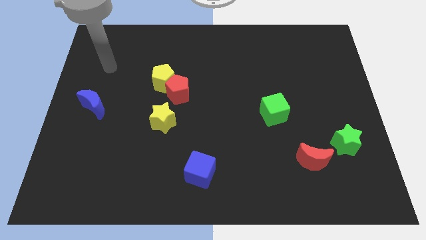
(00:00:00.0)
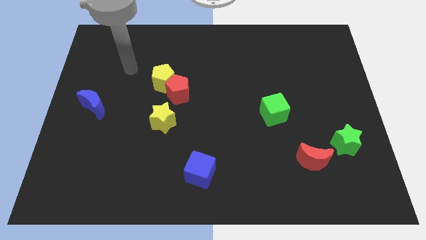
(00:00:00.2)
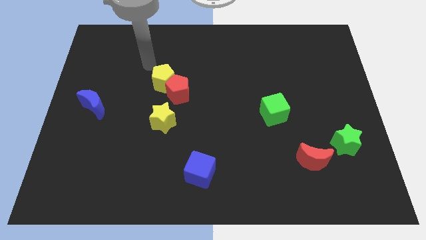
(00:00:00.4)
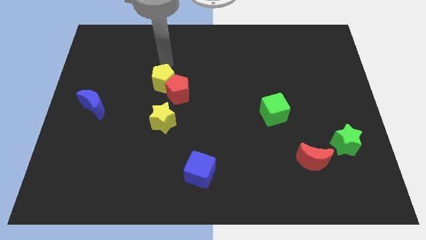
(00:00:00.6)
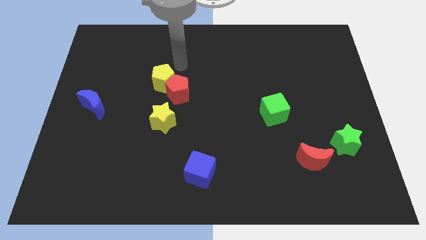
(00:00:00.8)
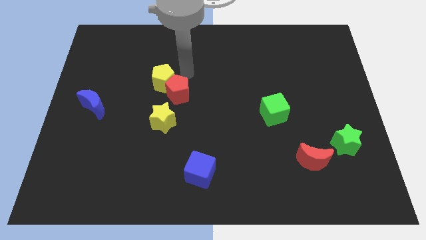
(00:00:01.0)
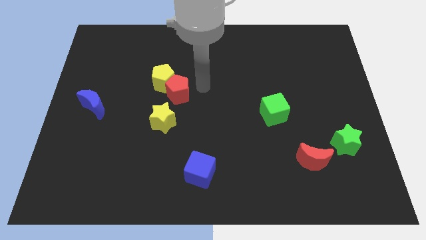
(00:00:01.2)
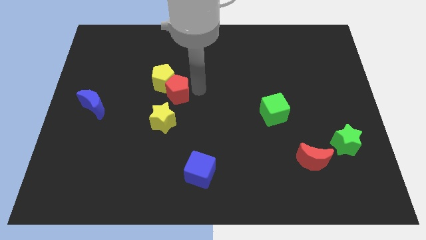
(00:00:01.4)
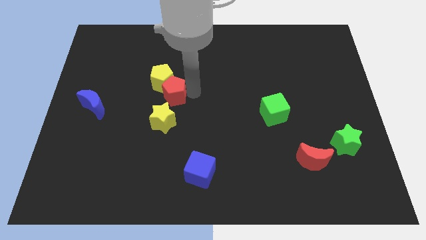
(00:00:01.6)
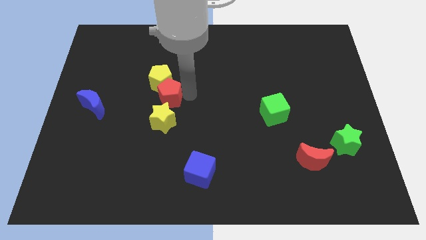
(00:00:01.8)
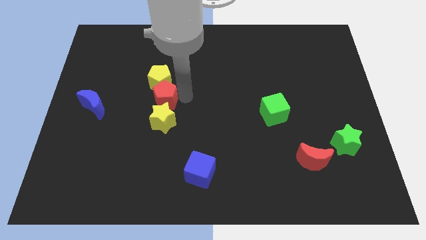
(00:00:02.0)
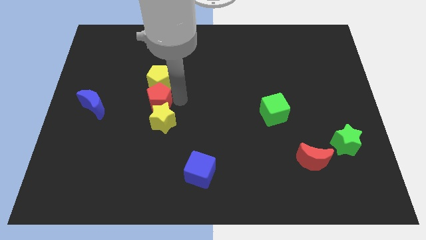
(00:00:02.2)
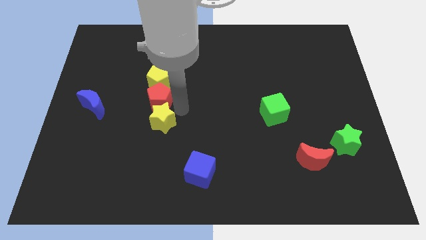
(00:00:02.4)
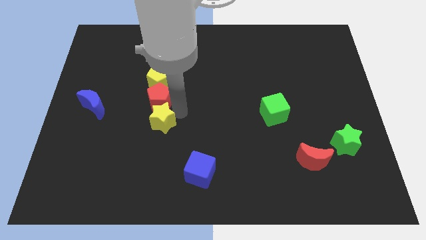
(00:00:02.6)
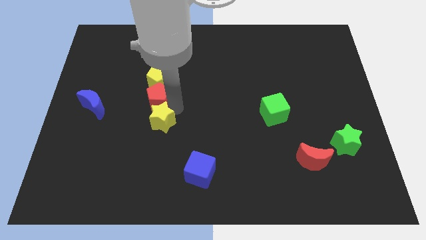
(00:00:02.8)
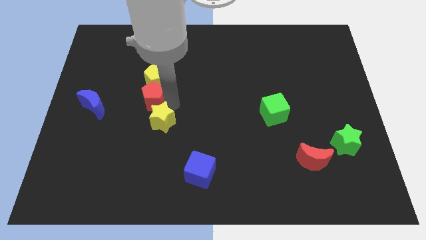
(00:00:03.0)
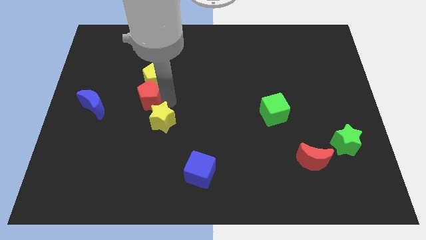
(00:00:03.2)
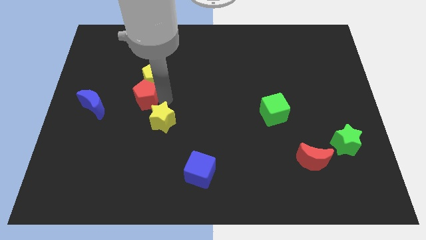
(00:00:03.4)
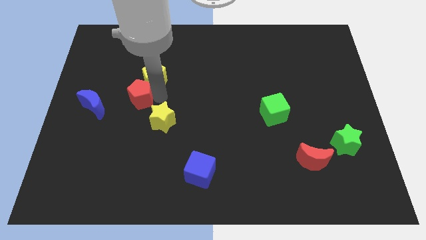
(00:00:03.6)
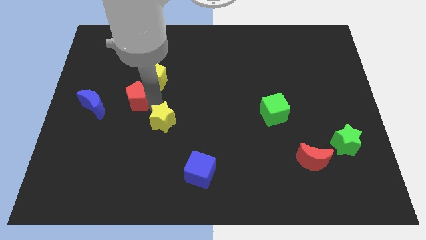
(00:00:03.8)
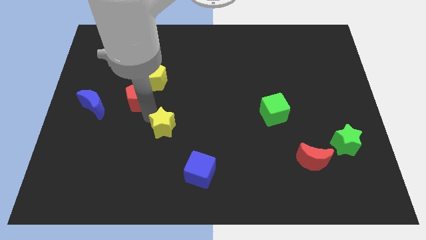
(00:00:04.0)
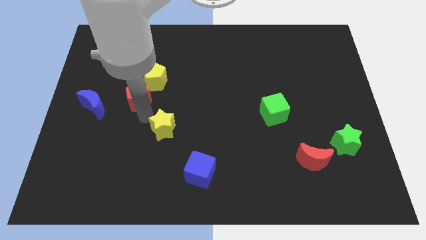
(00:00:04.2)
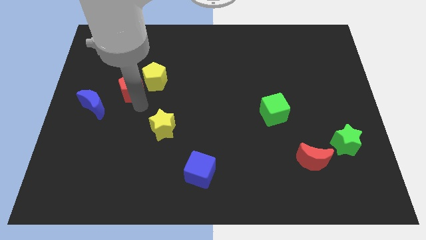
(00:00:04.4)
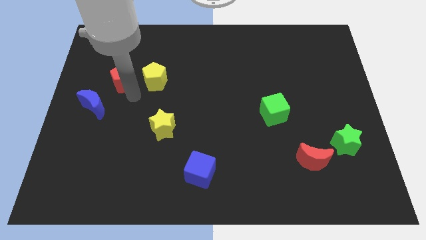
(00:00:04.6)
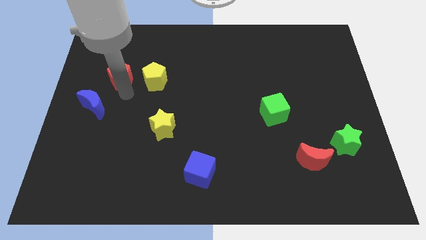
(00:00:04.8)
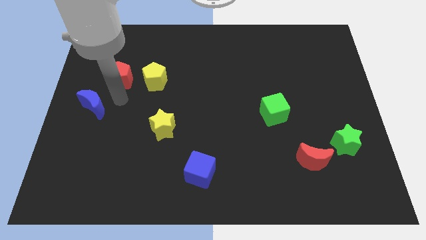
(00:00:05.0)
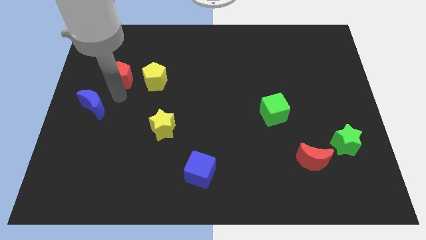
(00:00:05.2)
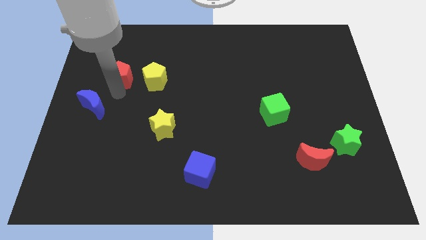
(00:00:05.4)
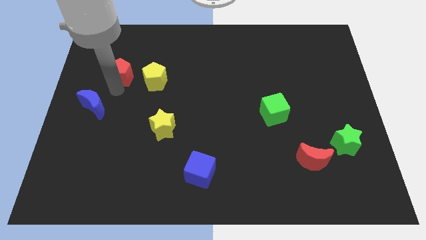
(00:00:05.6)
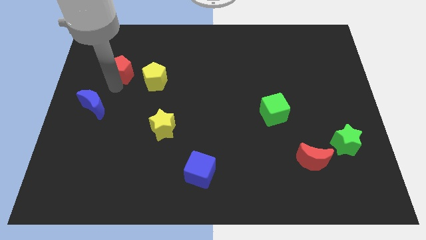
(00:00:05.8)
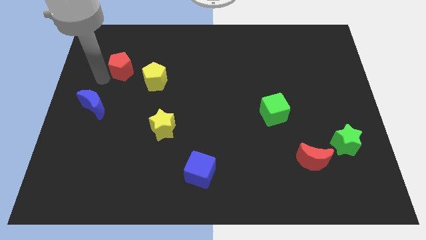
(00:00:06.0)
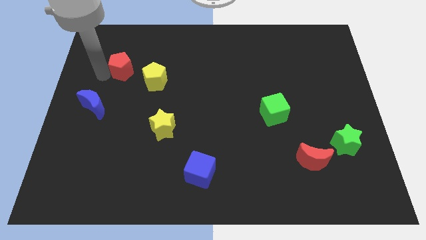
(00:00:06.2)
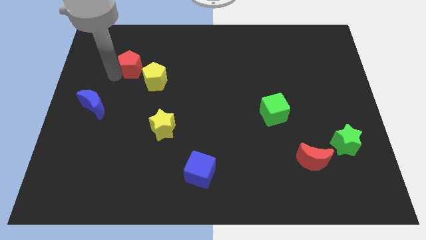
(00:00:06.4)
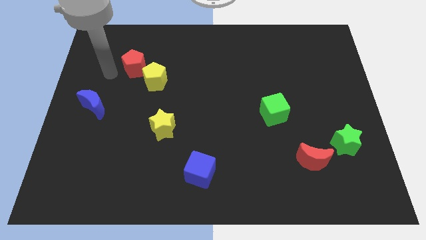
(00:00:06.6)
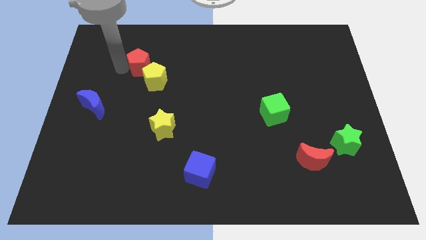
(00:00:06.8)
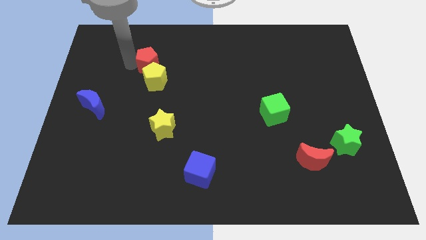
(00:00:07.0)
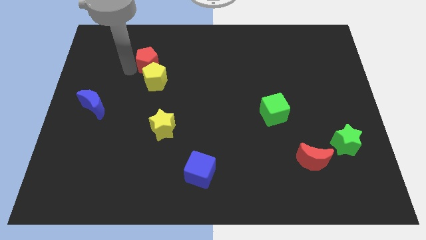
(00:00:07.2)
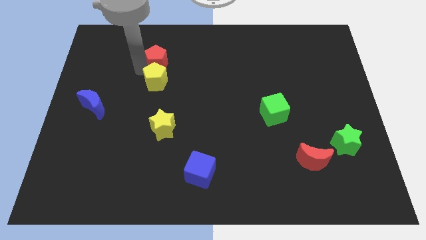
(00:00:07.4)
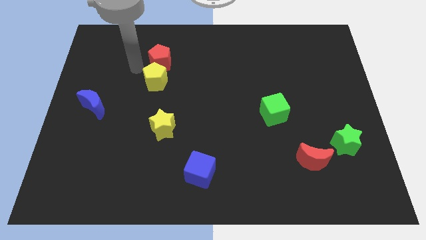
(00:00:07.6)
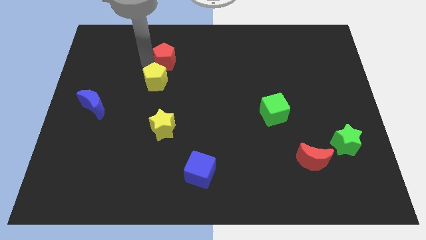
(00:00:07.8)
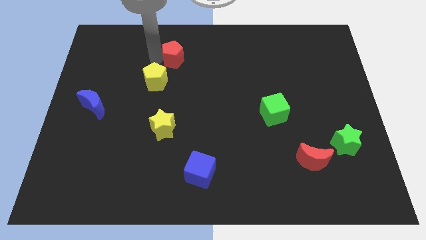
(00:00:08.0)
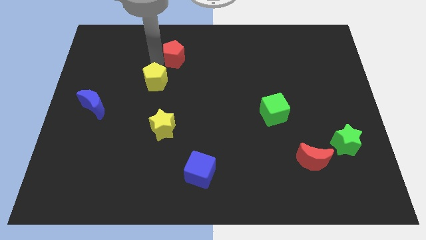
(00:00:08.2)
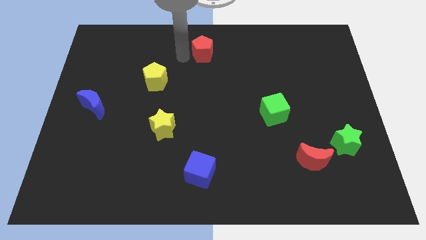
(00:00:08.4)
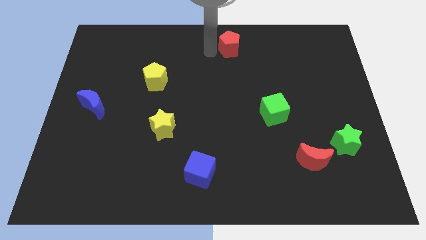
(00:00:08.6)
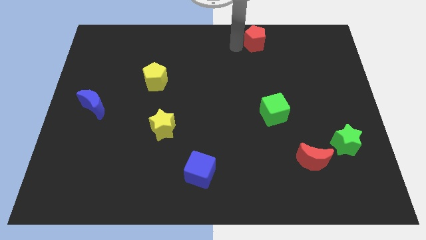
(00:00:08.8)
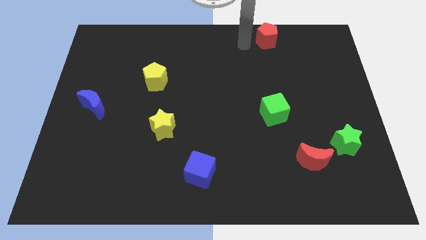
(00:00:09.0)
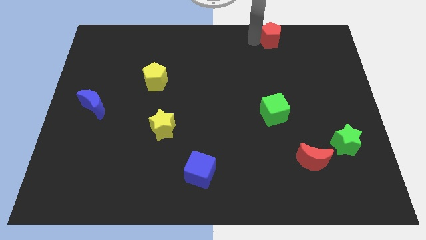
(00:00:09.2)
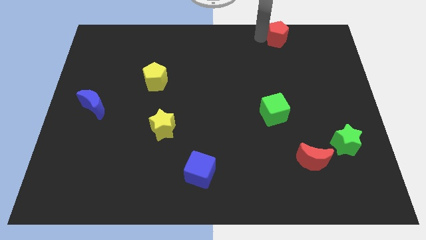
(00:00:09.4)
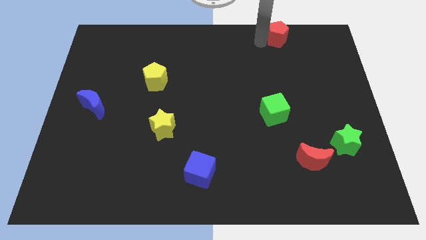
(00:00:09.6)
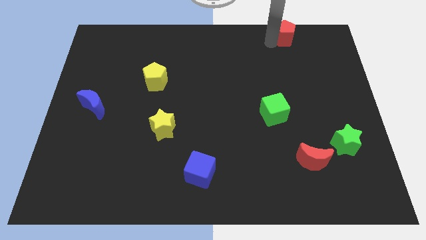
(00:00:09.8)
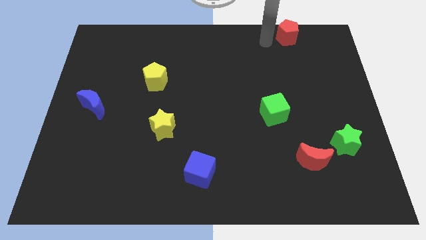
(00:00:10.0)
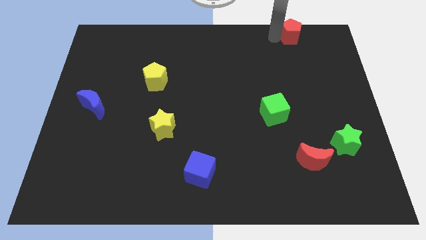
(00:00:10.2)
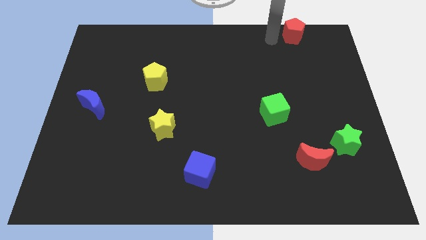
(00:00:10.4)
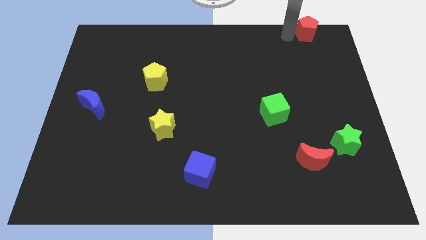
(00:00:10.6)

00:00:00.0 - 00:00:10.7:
push the red pentagon to the top right corner

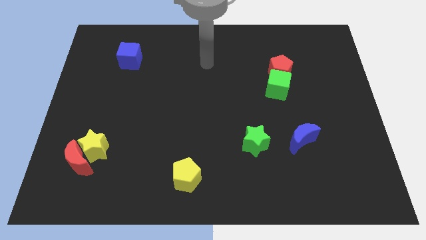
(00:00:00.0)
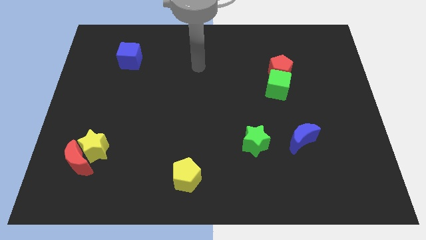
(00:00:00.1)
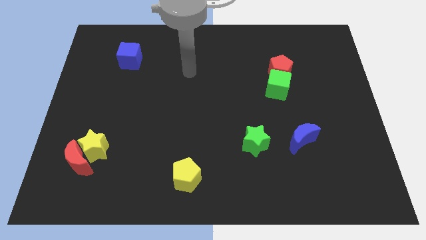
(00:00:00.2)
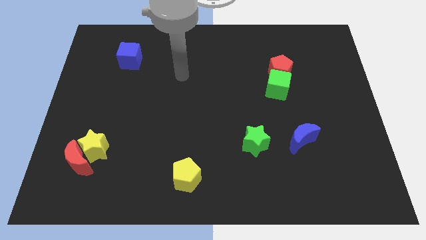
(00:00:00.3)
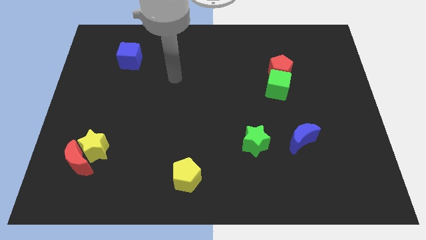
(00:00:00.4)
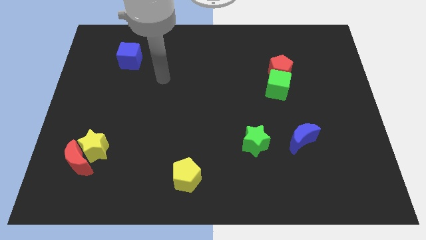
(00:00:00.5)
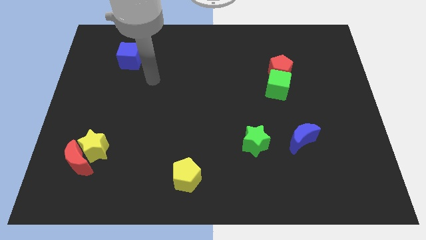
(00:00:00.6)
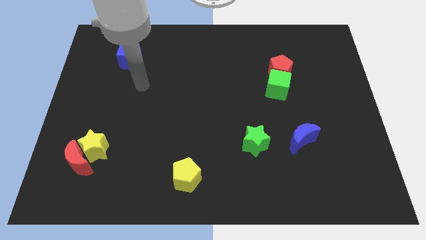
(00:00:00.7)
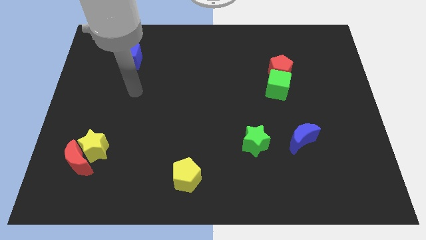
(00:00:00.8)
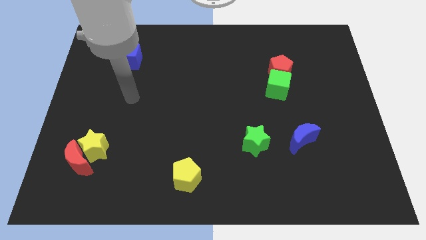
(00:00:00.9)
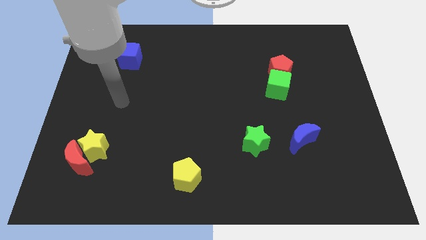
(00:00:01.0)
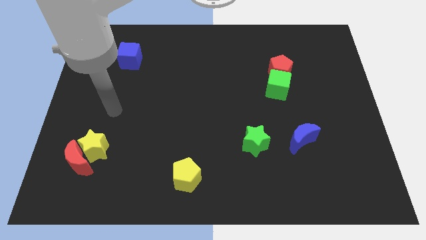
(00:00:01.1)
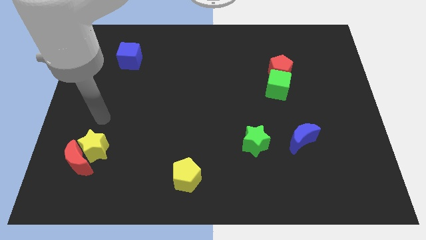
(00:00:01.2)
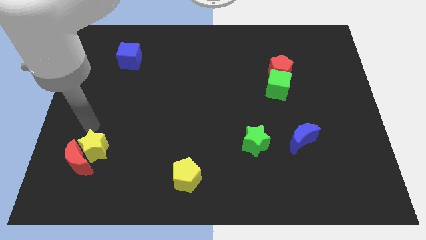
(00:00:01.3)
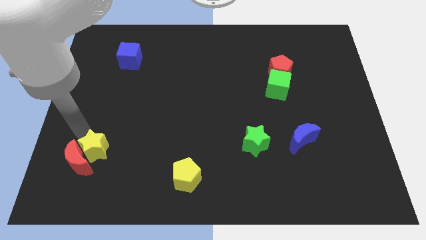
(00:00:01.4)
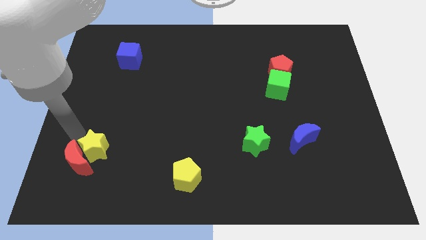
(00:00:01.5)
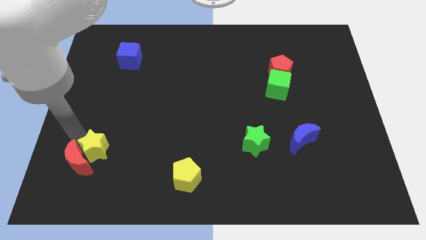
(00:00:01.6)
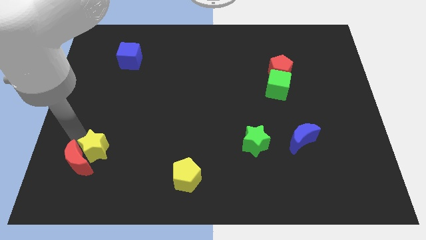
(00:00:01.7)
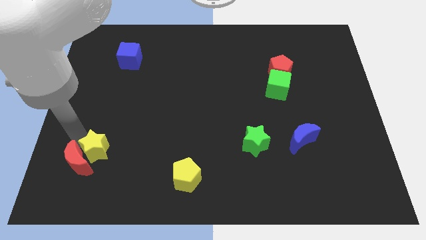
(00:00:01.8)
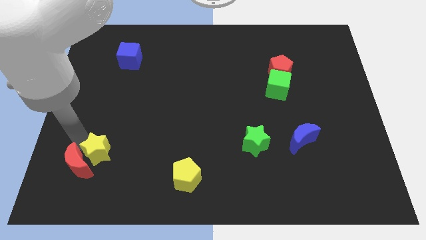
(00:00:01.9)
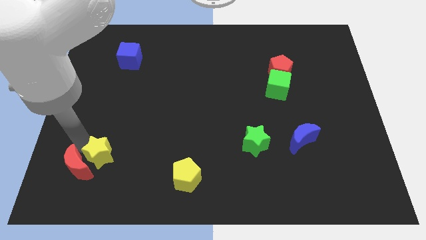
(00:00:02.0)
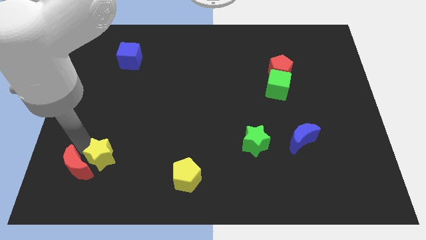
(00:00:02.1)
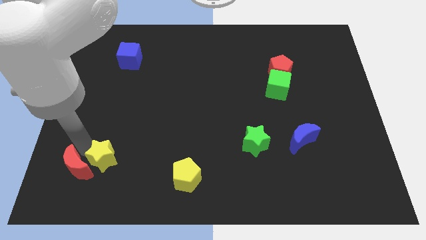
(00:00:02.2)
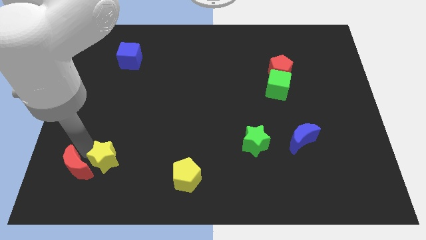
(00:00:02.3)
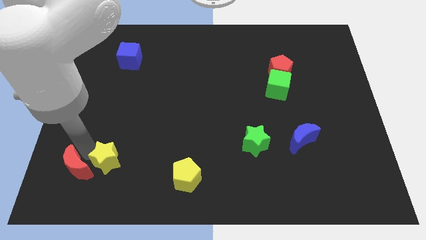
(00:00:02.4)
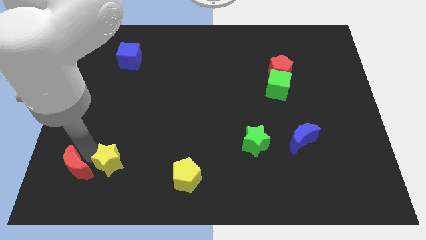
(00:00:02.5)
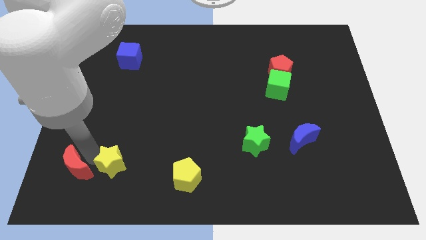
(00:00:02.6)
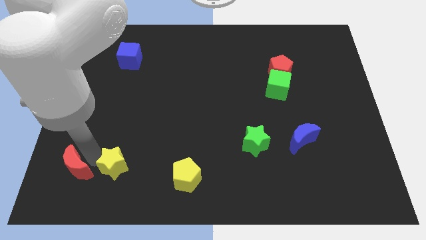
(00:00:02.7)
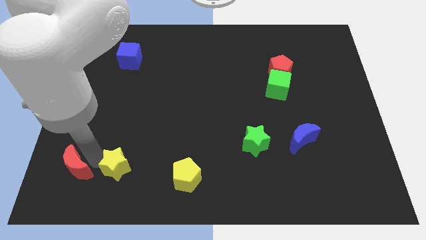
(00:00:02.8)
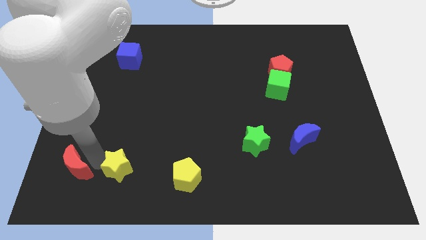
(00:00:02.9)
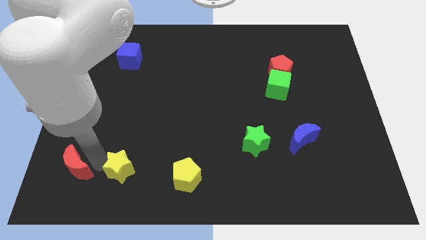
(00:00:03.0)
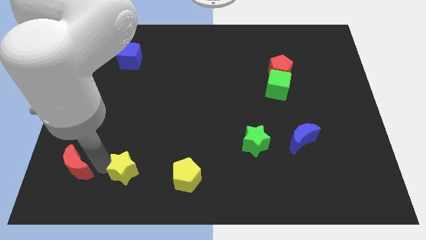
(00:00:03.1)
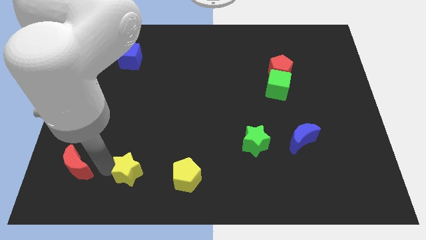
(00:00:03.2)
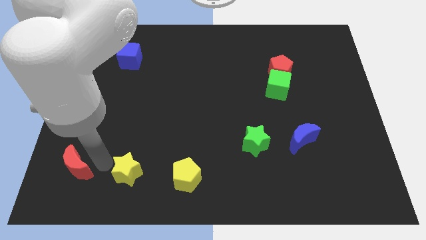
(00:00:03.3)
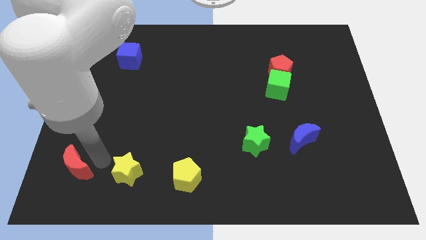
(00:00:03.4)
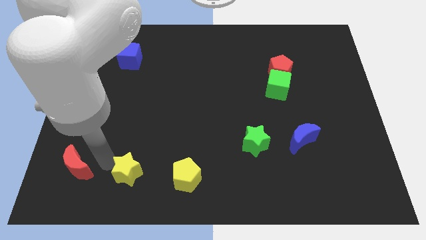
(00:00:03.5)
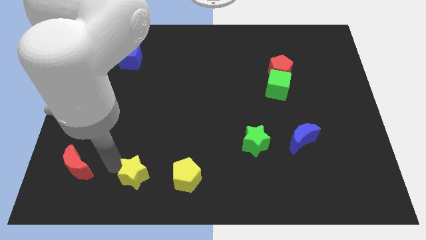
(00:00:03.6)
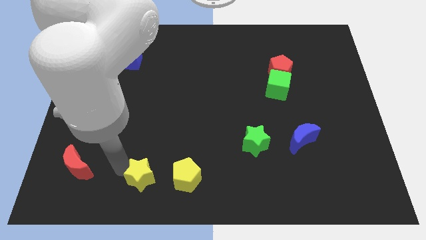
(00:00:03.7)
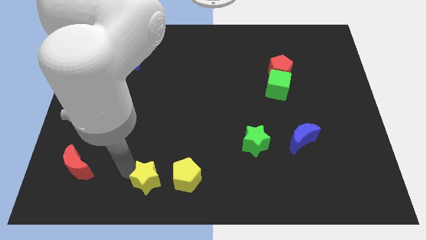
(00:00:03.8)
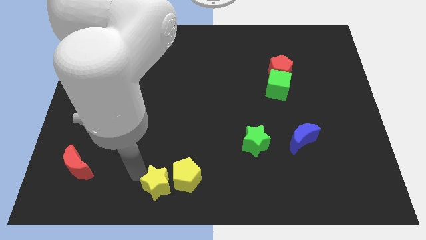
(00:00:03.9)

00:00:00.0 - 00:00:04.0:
put the yellow star to the bottom
